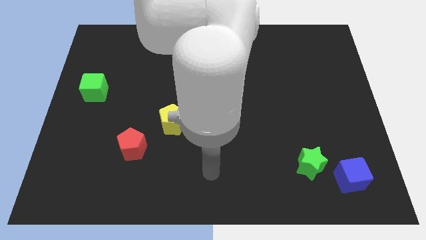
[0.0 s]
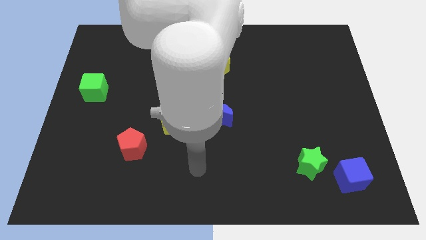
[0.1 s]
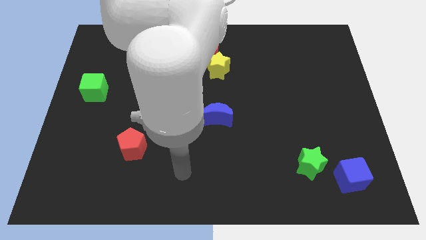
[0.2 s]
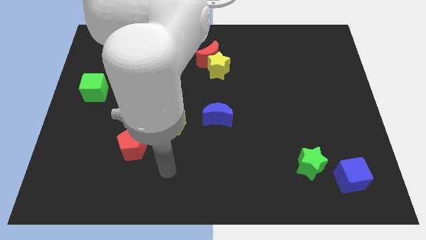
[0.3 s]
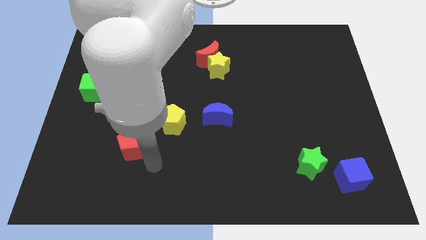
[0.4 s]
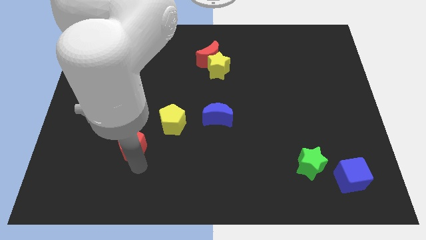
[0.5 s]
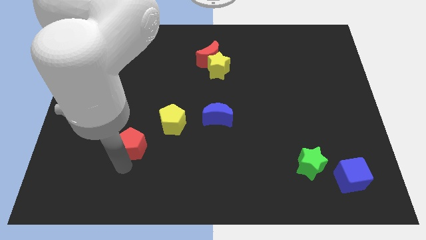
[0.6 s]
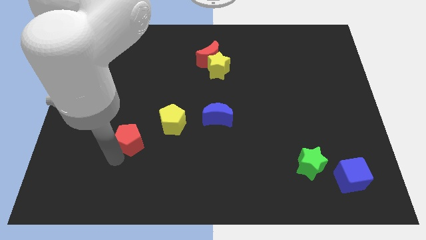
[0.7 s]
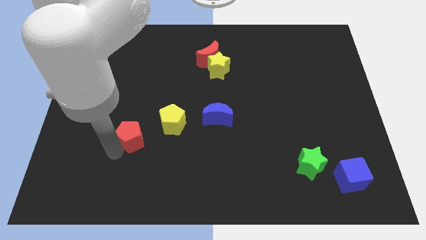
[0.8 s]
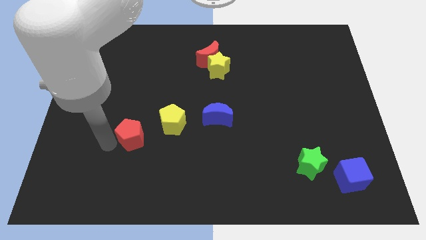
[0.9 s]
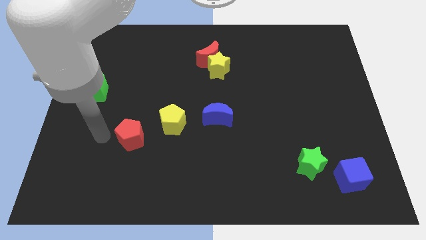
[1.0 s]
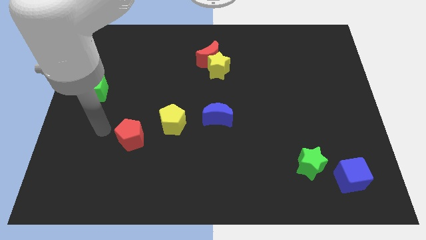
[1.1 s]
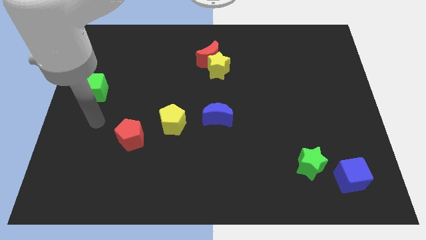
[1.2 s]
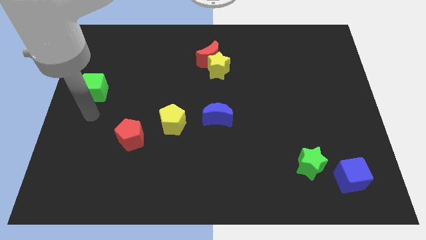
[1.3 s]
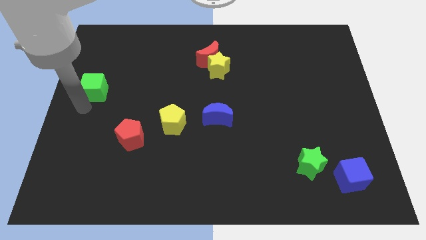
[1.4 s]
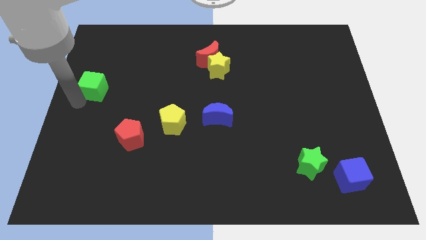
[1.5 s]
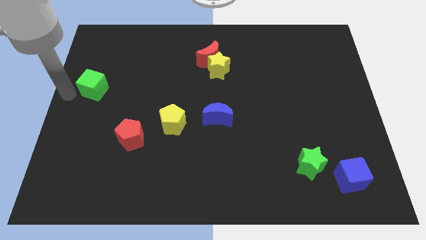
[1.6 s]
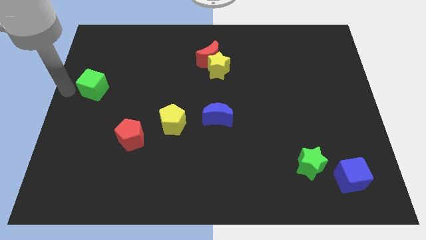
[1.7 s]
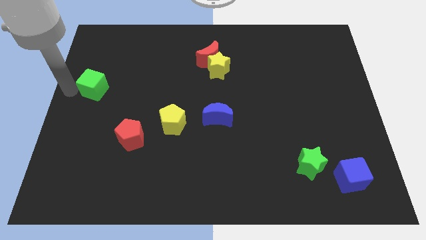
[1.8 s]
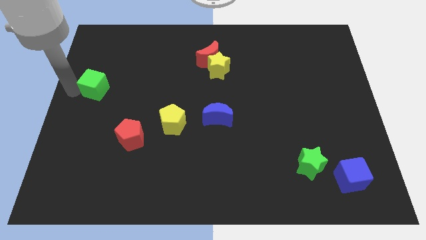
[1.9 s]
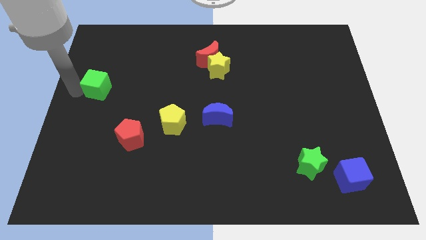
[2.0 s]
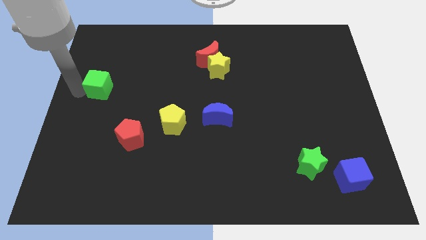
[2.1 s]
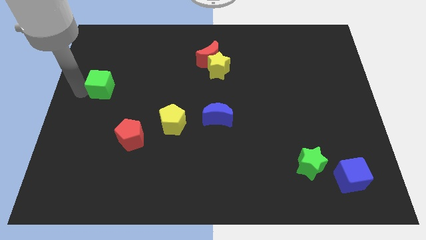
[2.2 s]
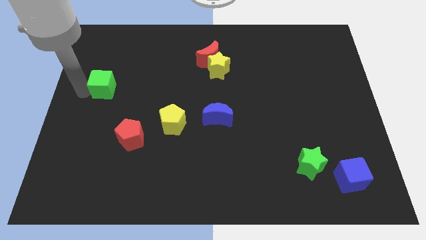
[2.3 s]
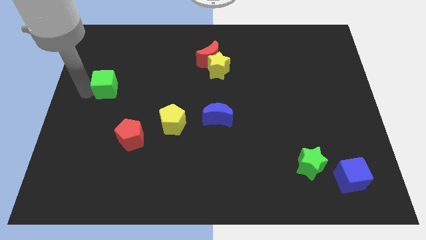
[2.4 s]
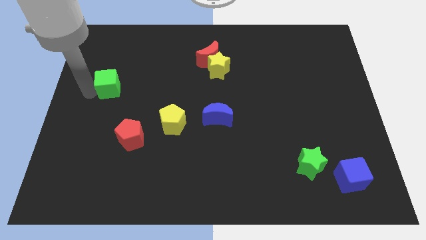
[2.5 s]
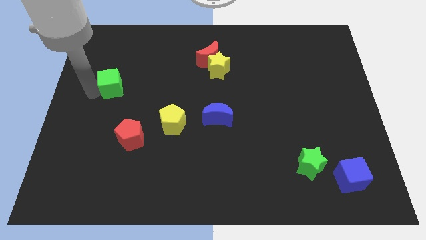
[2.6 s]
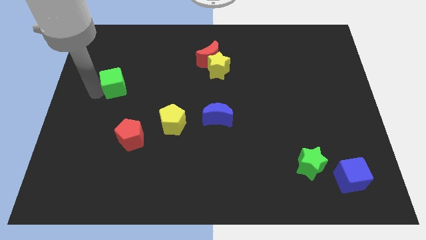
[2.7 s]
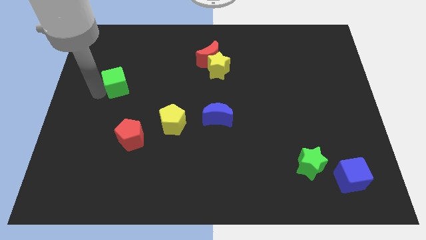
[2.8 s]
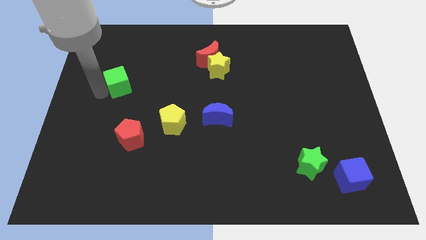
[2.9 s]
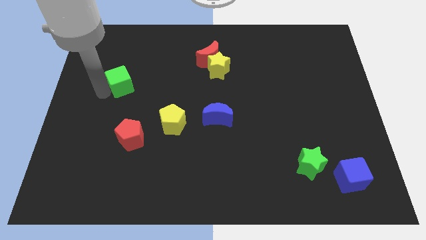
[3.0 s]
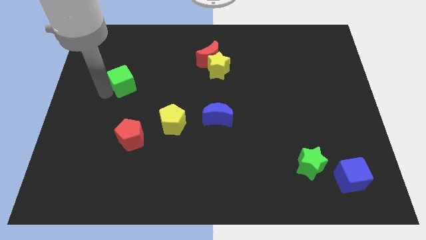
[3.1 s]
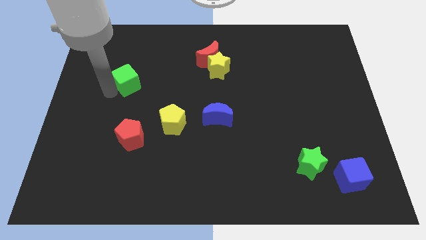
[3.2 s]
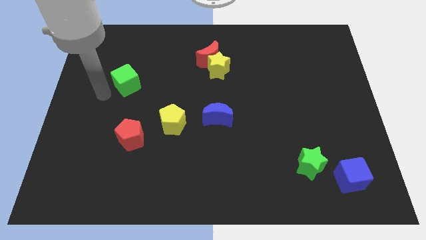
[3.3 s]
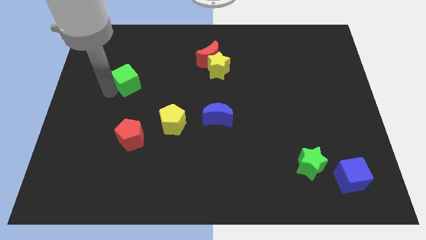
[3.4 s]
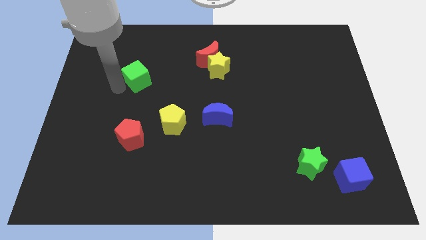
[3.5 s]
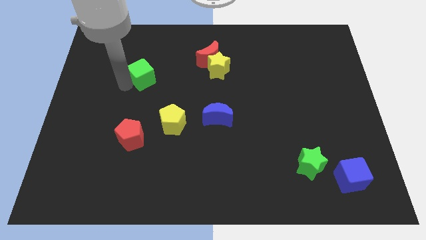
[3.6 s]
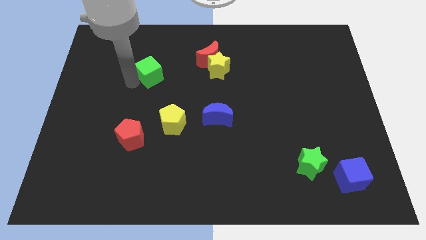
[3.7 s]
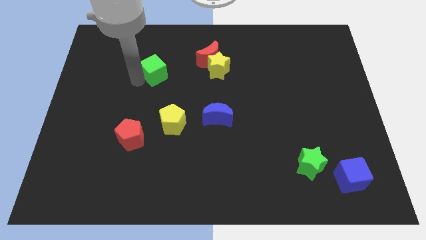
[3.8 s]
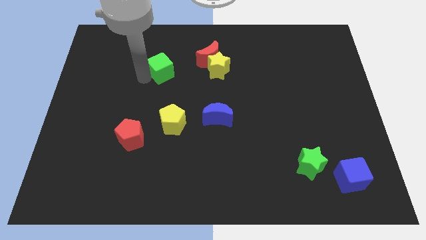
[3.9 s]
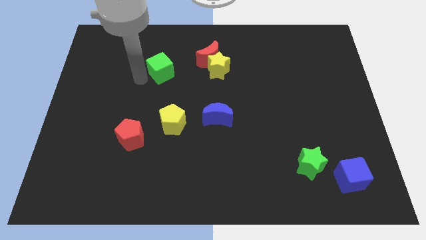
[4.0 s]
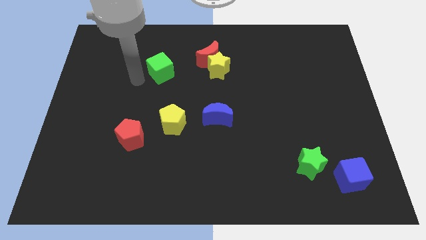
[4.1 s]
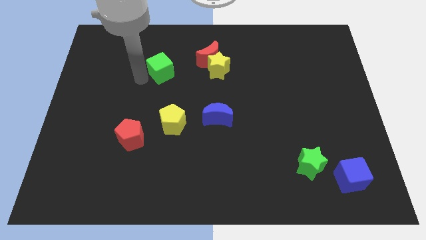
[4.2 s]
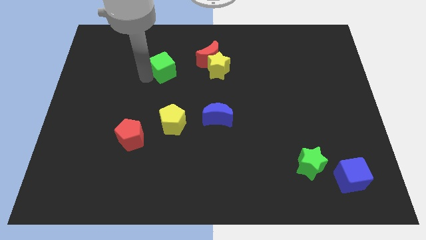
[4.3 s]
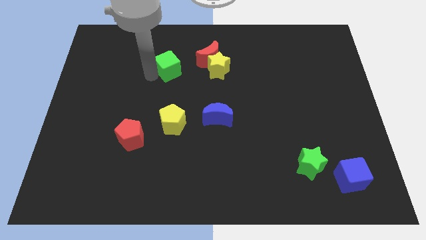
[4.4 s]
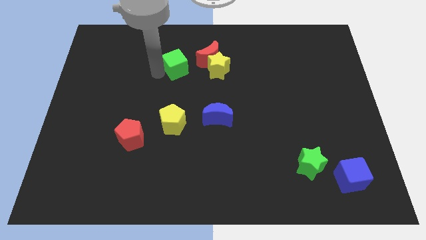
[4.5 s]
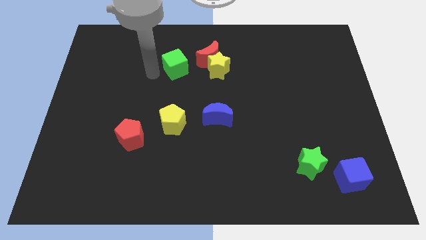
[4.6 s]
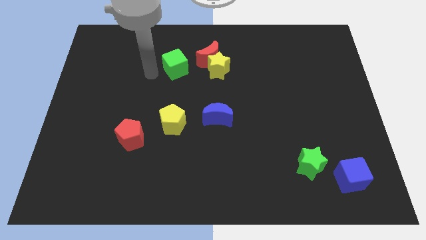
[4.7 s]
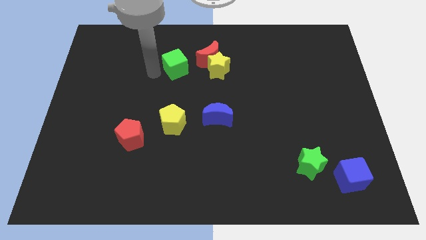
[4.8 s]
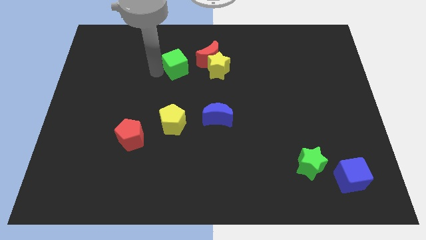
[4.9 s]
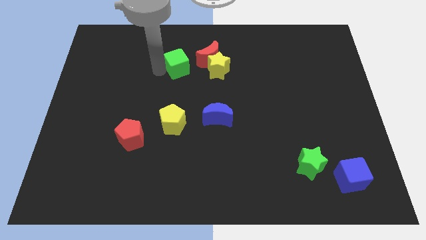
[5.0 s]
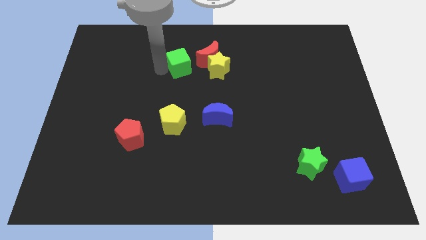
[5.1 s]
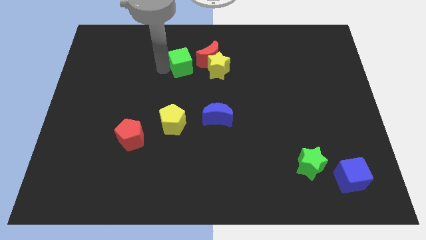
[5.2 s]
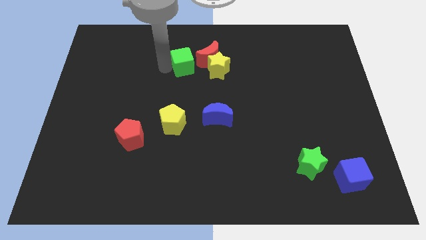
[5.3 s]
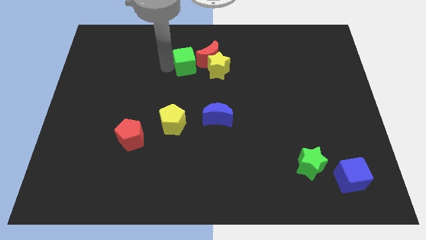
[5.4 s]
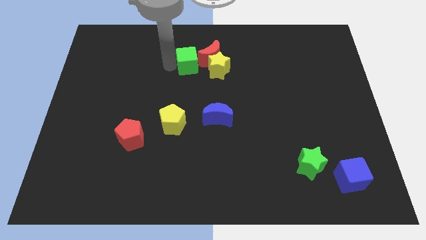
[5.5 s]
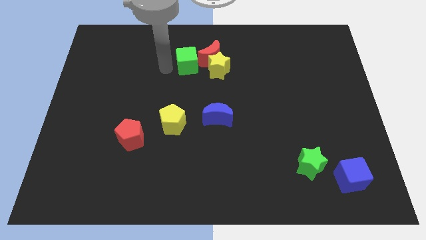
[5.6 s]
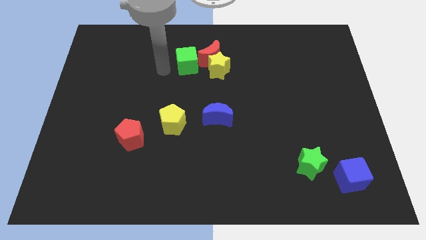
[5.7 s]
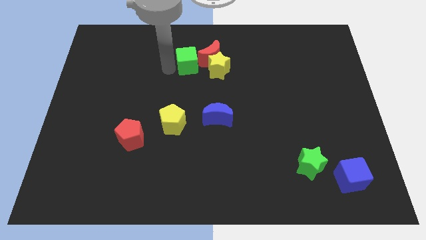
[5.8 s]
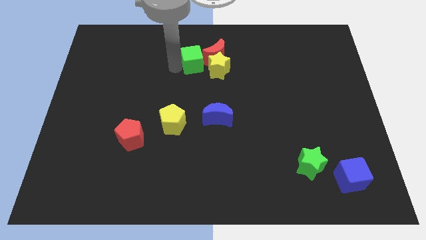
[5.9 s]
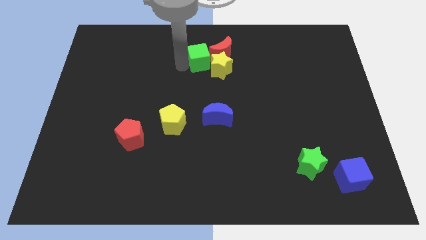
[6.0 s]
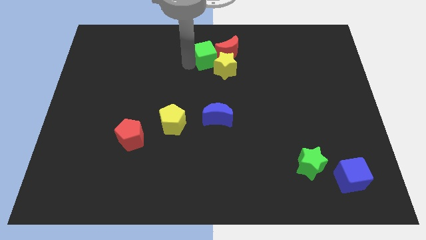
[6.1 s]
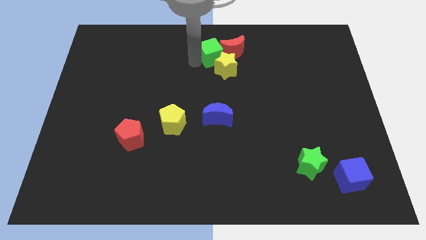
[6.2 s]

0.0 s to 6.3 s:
slide the green cube towards the red moon

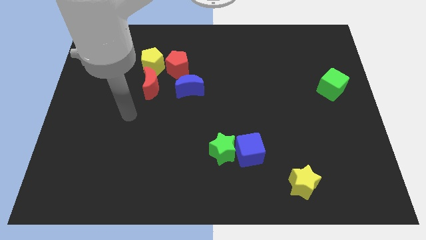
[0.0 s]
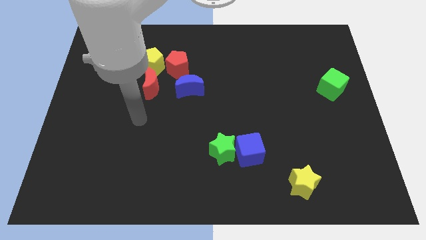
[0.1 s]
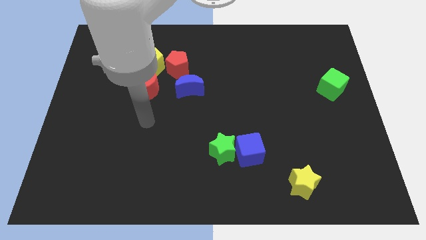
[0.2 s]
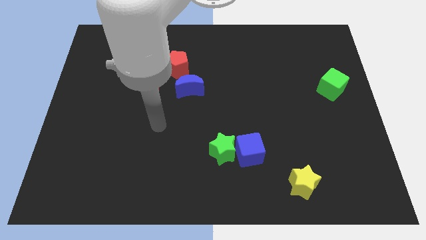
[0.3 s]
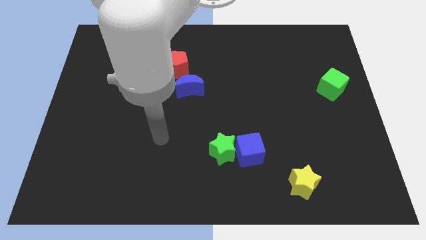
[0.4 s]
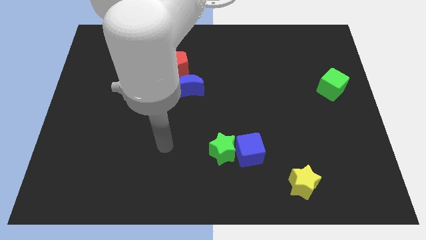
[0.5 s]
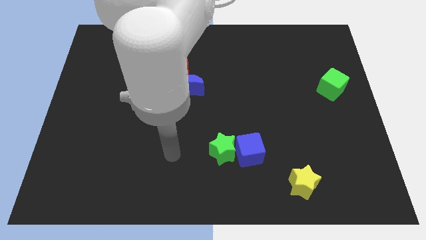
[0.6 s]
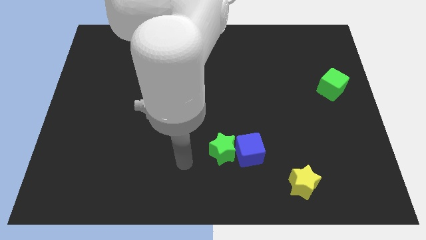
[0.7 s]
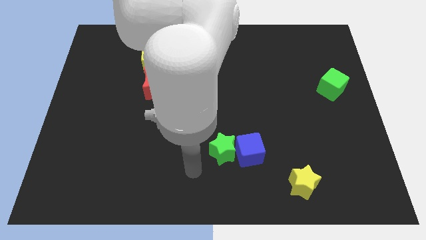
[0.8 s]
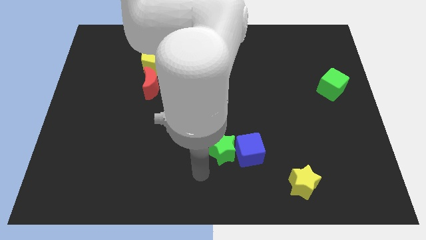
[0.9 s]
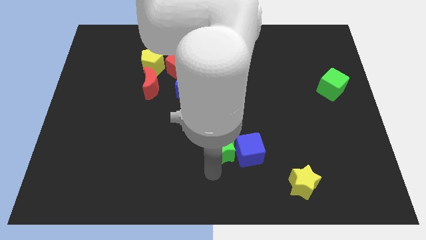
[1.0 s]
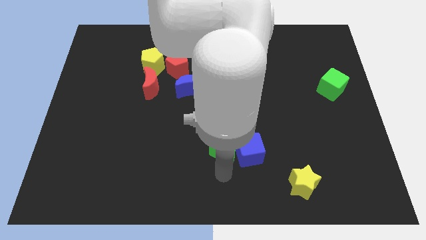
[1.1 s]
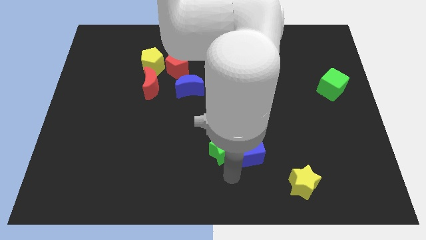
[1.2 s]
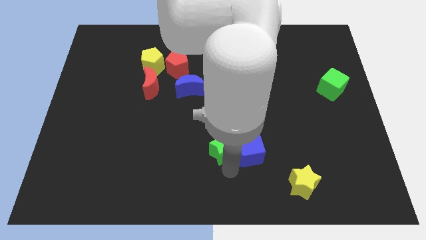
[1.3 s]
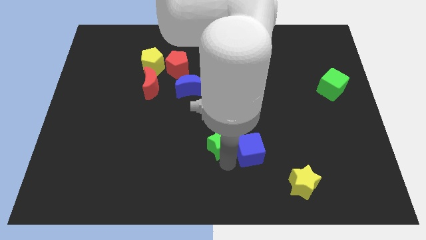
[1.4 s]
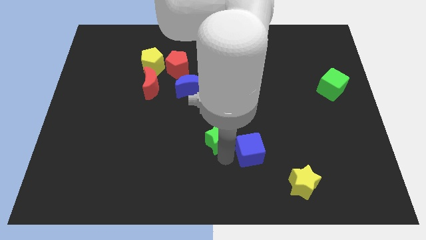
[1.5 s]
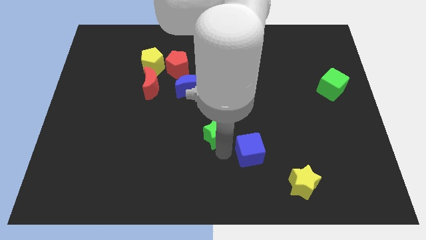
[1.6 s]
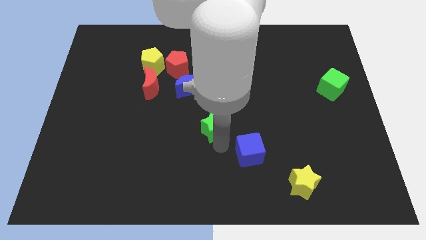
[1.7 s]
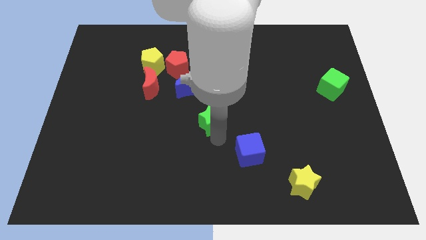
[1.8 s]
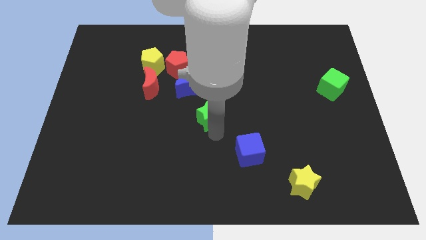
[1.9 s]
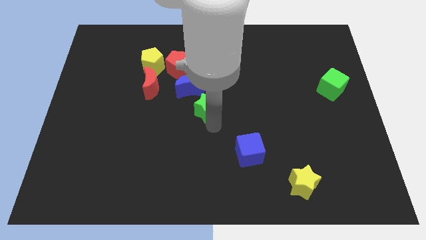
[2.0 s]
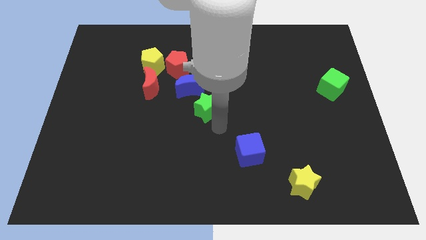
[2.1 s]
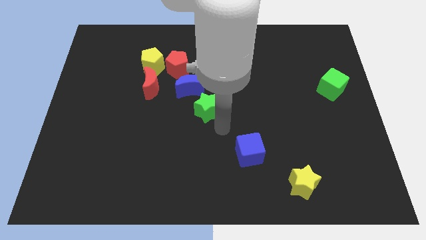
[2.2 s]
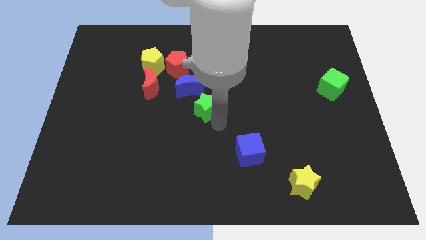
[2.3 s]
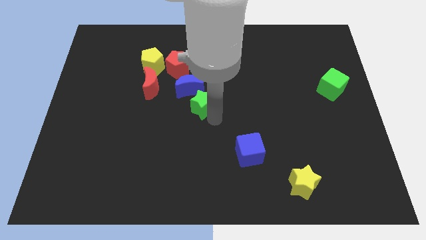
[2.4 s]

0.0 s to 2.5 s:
move the green star towards the blue moon
